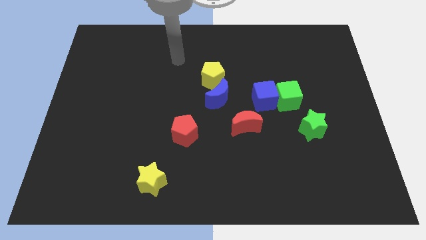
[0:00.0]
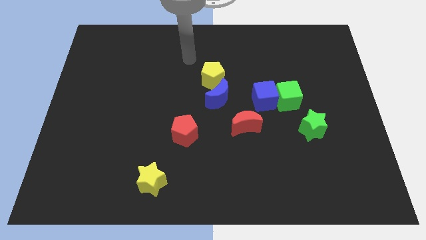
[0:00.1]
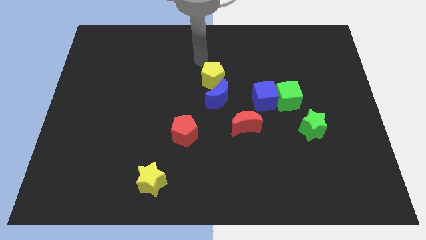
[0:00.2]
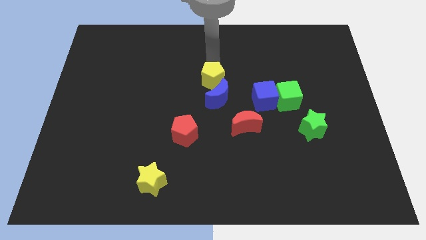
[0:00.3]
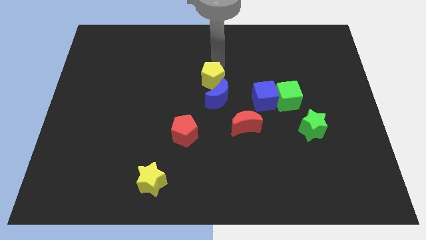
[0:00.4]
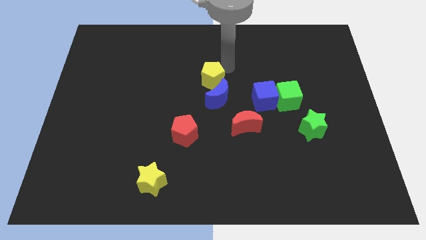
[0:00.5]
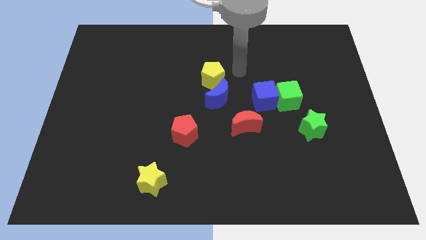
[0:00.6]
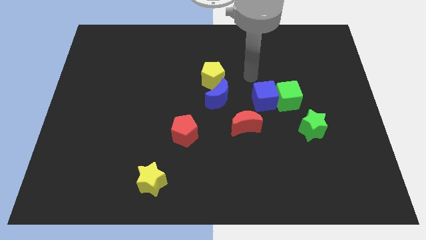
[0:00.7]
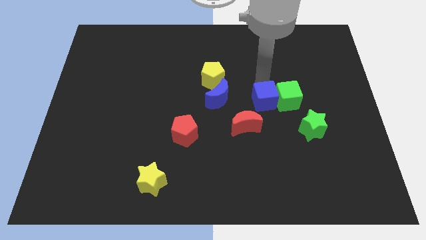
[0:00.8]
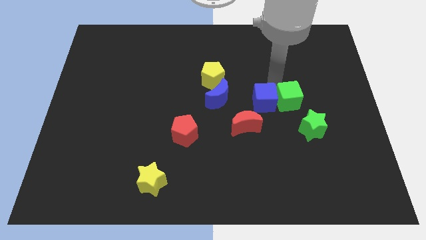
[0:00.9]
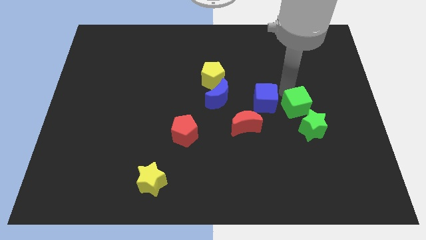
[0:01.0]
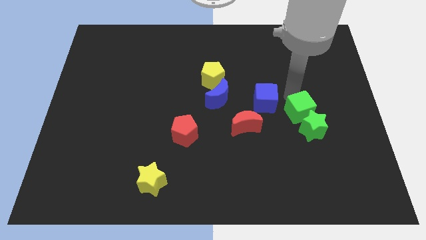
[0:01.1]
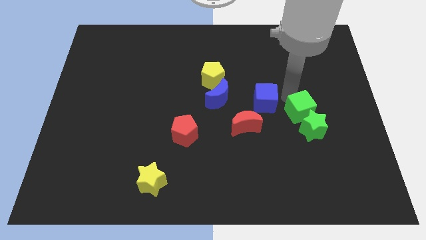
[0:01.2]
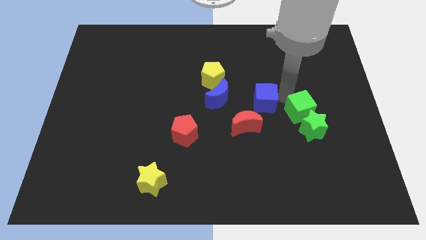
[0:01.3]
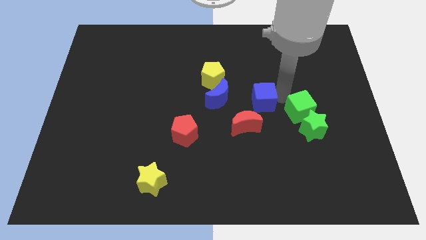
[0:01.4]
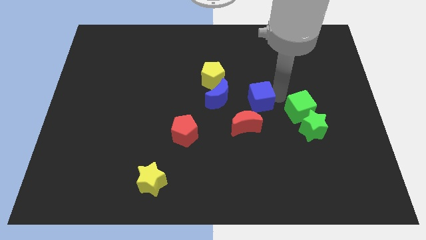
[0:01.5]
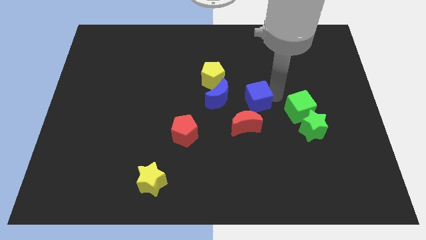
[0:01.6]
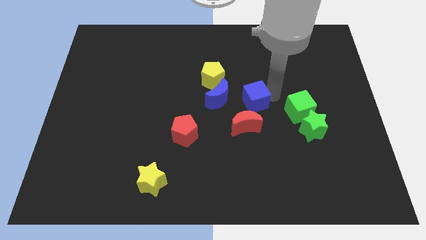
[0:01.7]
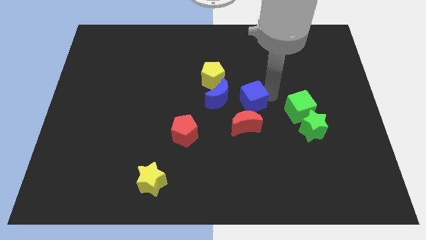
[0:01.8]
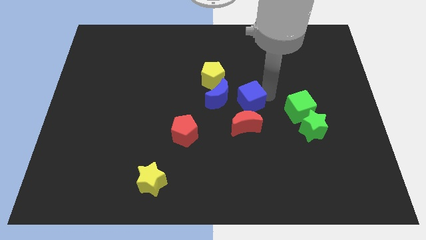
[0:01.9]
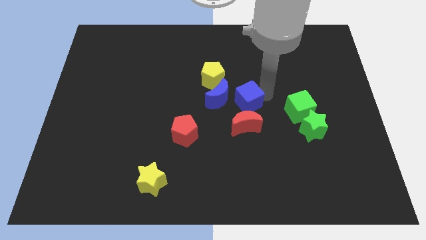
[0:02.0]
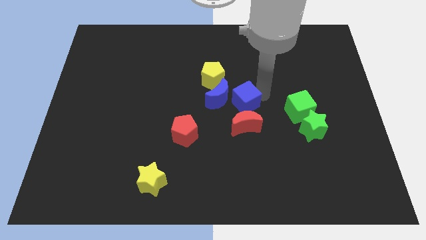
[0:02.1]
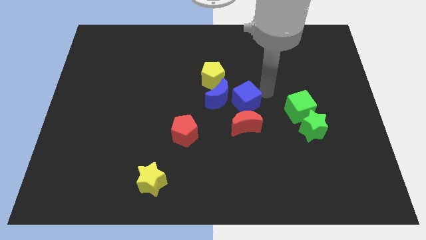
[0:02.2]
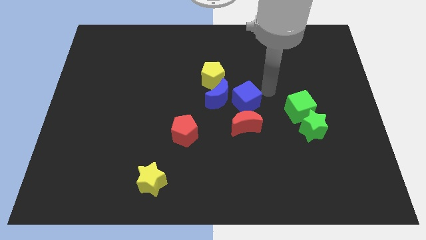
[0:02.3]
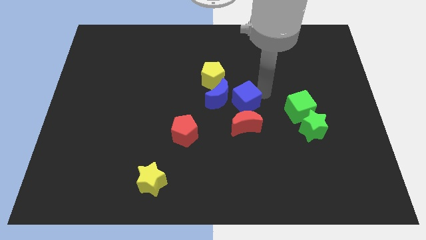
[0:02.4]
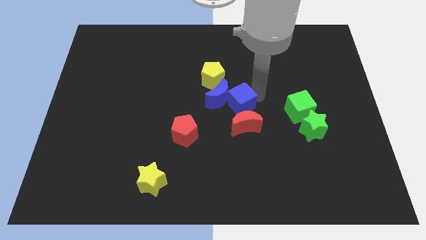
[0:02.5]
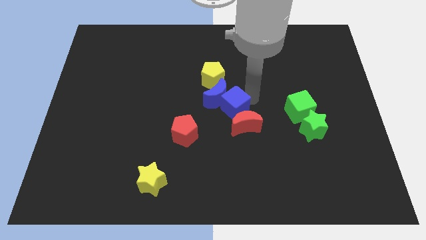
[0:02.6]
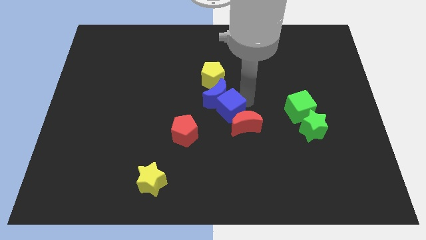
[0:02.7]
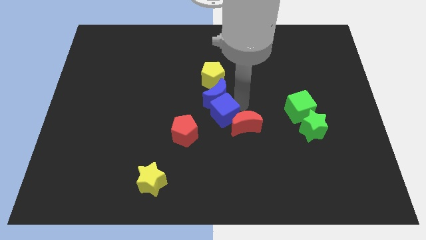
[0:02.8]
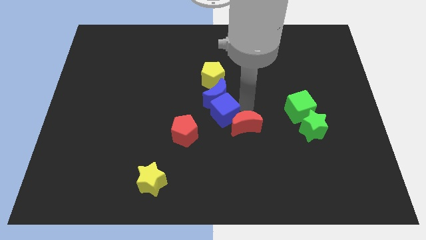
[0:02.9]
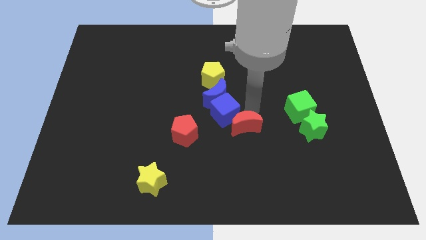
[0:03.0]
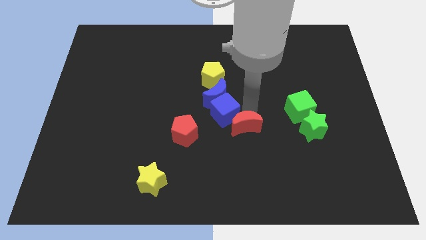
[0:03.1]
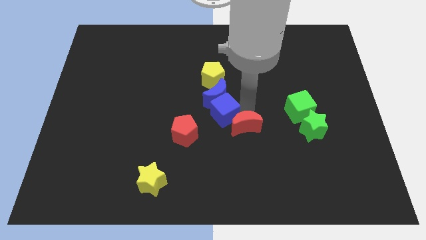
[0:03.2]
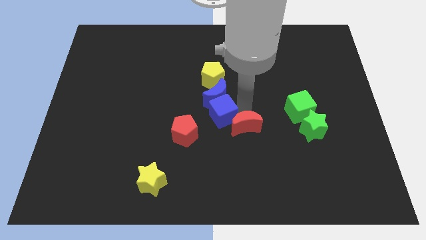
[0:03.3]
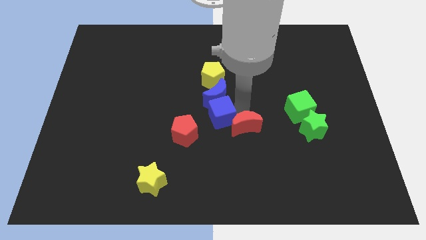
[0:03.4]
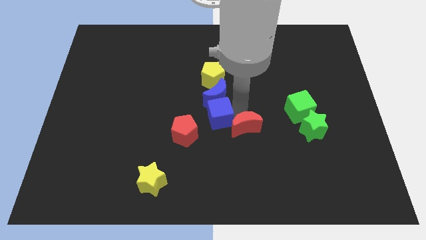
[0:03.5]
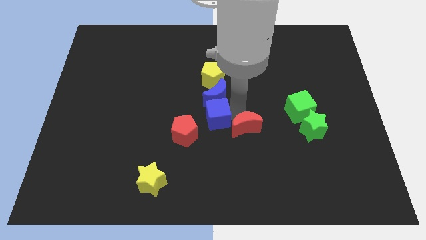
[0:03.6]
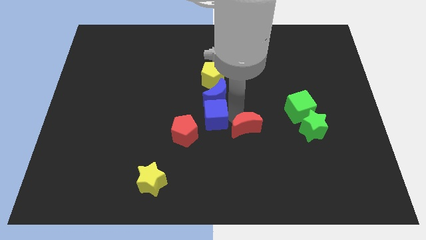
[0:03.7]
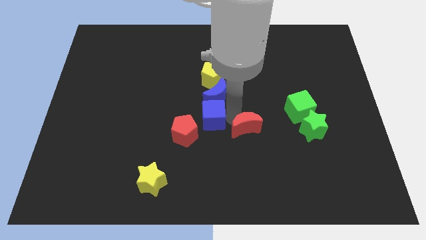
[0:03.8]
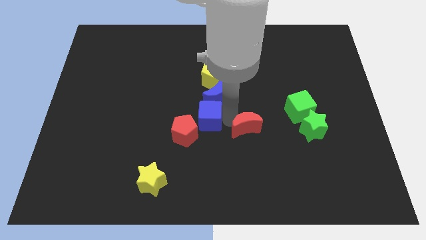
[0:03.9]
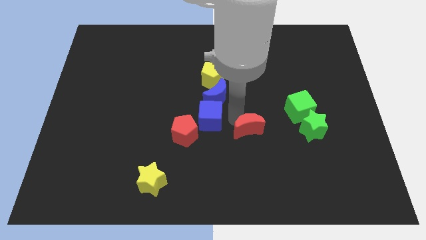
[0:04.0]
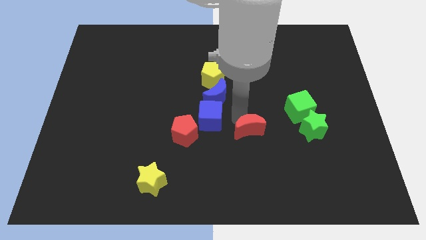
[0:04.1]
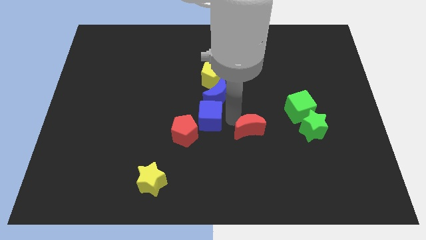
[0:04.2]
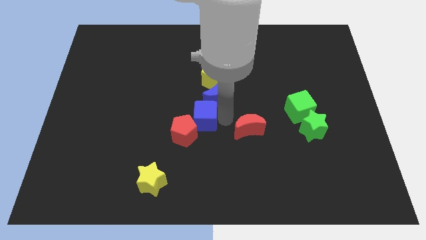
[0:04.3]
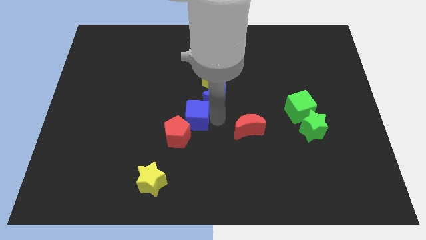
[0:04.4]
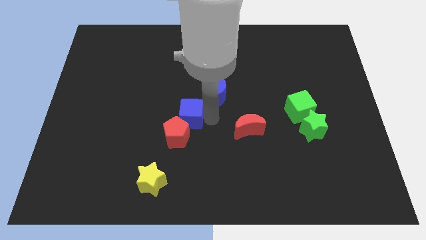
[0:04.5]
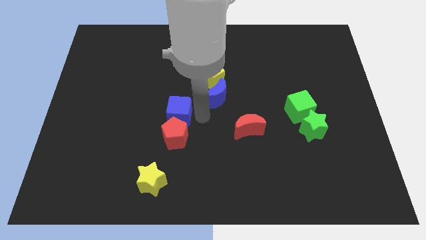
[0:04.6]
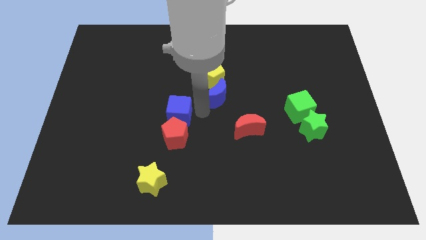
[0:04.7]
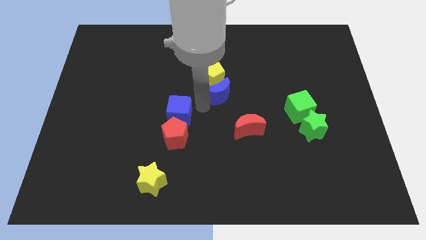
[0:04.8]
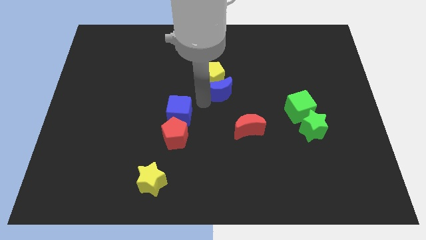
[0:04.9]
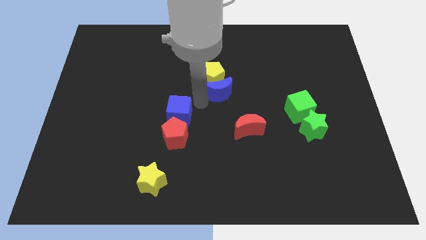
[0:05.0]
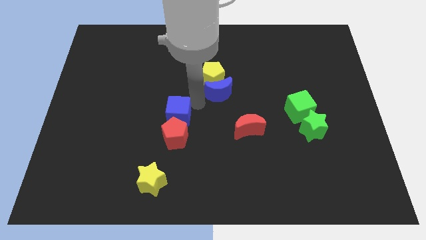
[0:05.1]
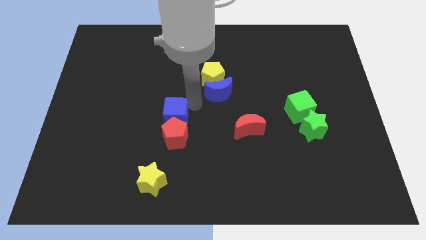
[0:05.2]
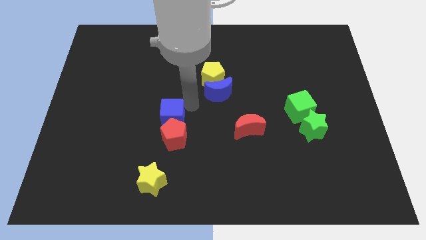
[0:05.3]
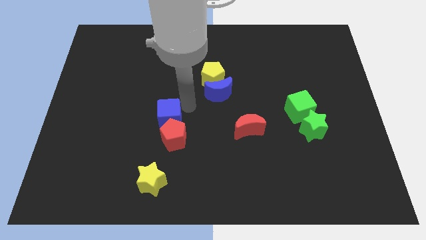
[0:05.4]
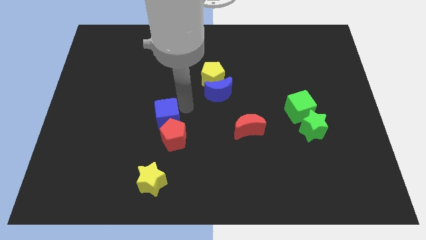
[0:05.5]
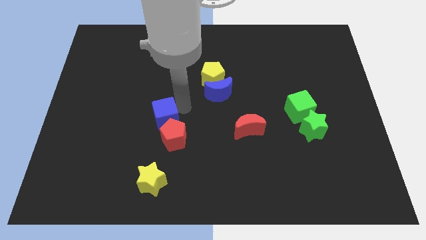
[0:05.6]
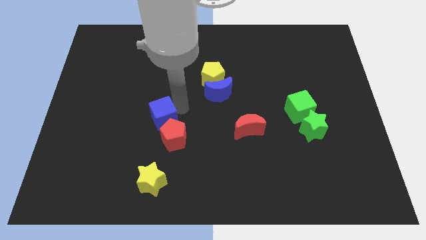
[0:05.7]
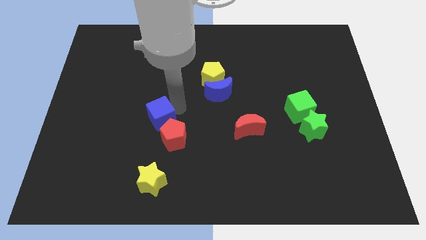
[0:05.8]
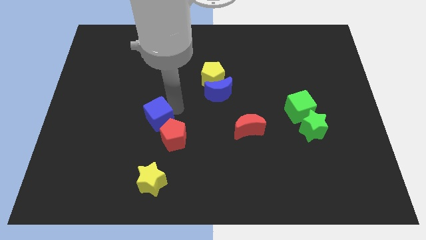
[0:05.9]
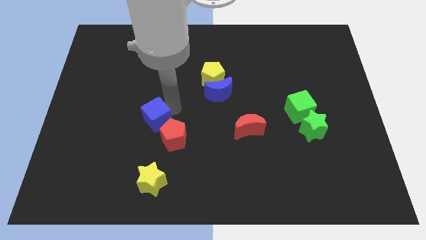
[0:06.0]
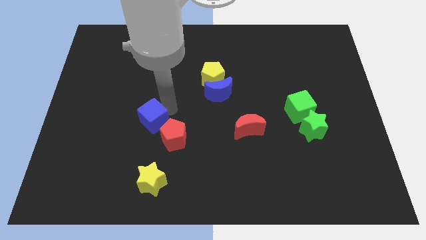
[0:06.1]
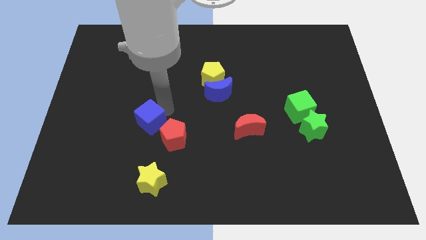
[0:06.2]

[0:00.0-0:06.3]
slide the blue cube to the left side of the red pentagon

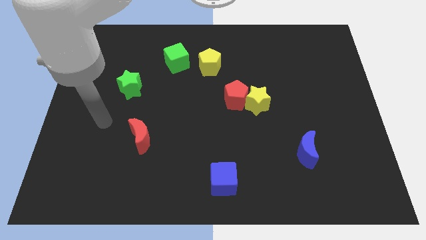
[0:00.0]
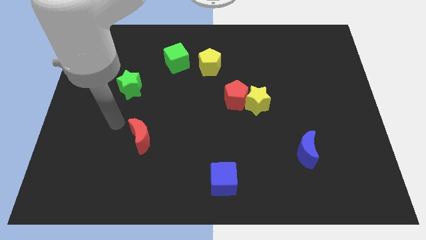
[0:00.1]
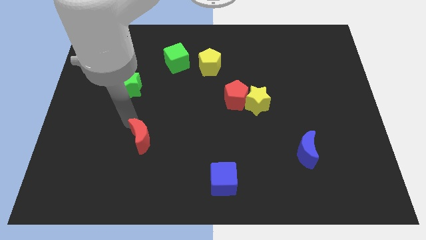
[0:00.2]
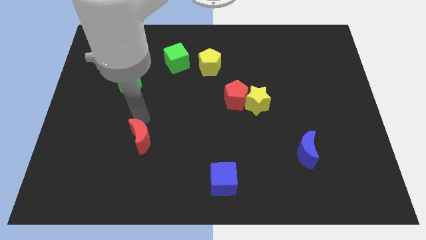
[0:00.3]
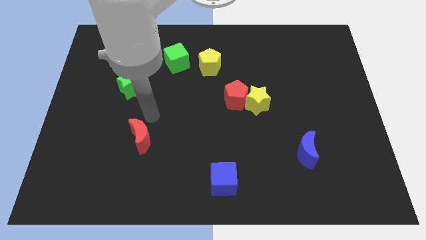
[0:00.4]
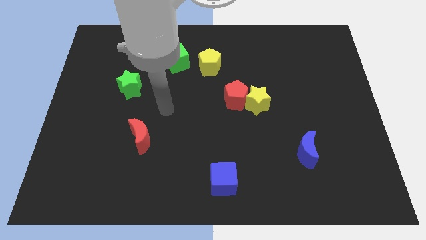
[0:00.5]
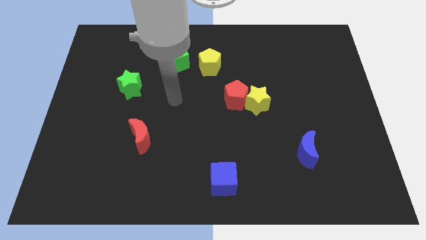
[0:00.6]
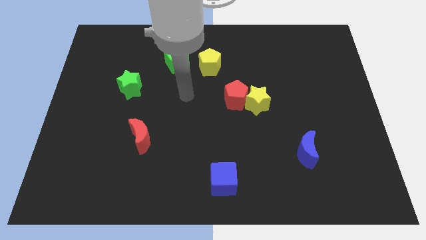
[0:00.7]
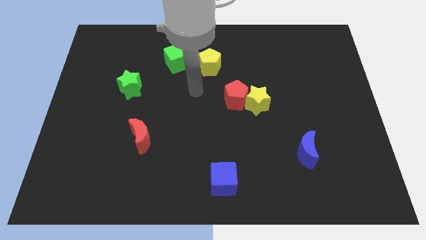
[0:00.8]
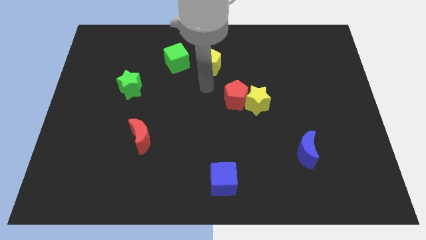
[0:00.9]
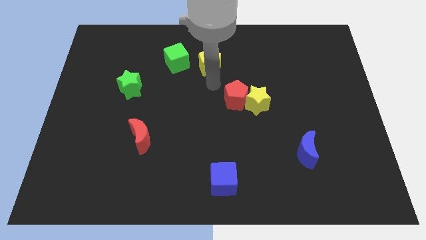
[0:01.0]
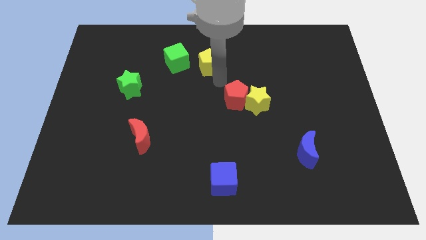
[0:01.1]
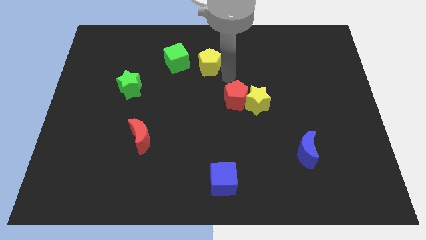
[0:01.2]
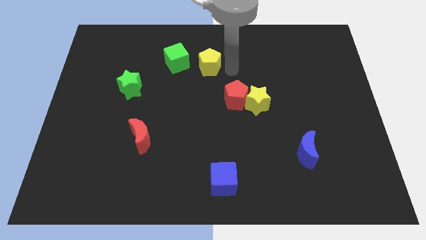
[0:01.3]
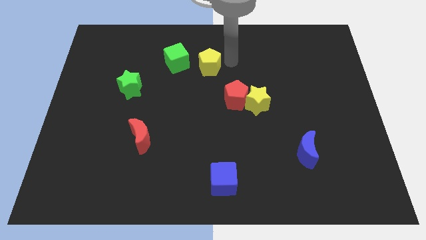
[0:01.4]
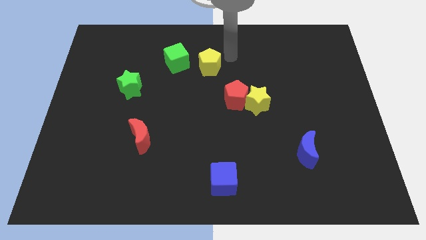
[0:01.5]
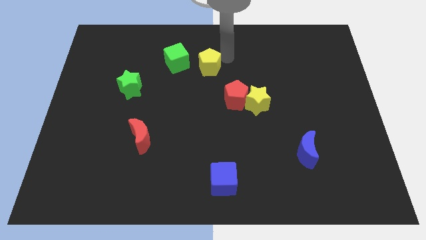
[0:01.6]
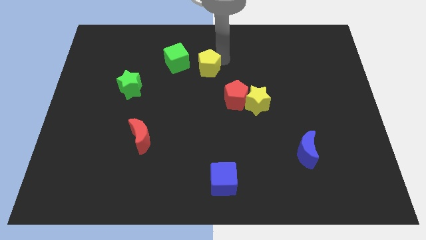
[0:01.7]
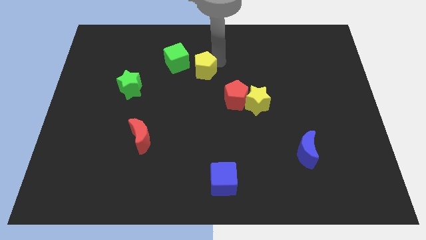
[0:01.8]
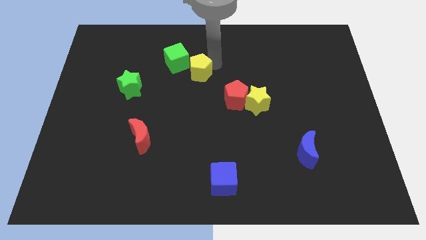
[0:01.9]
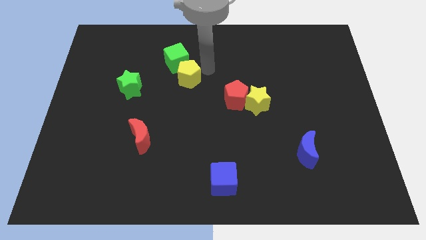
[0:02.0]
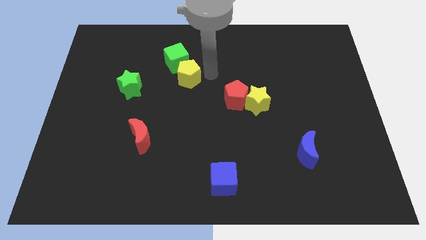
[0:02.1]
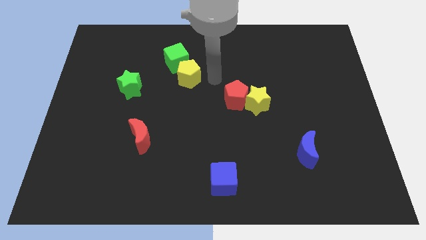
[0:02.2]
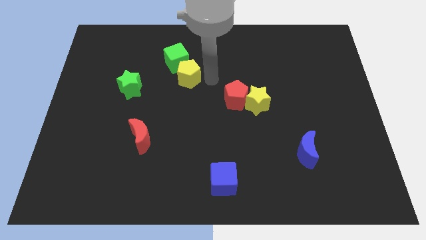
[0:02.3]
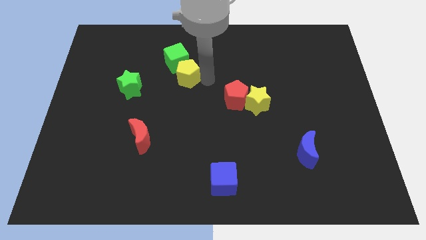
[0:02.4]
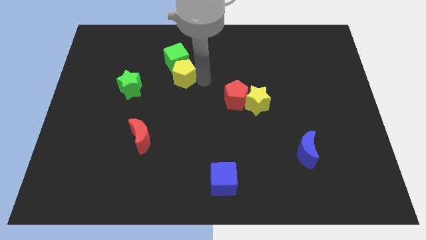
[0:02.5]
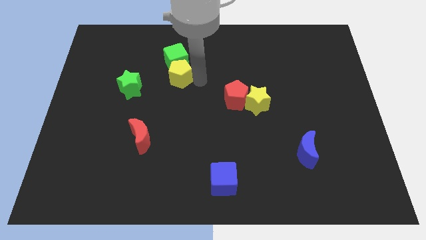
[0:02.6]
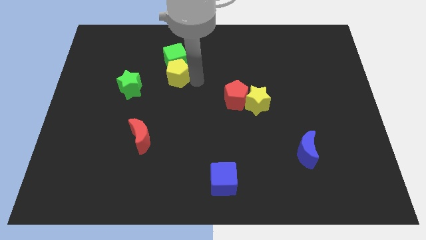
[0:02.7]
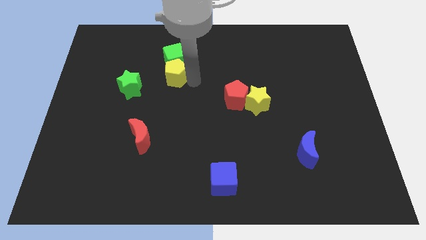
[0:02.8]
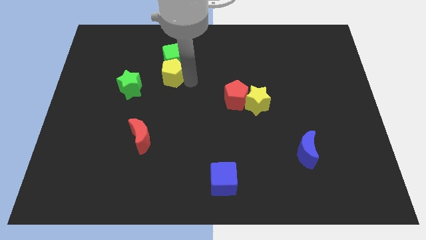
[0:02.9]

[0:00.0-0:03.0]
put the yellow pentagon to the top right side of the green star
